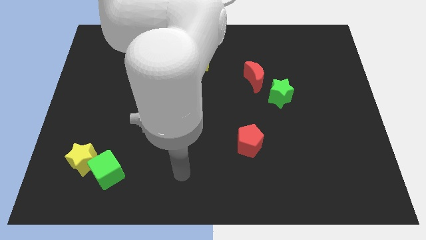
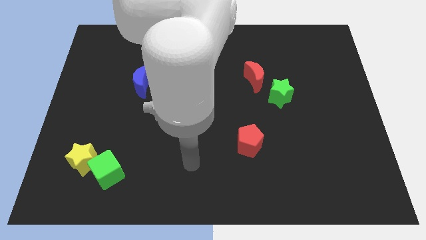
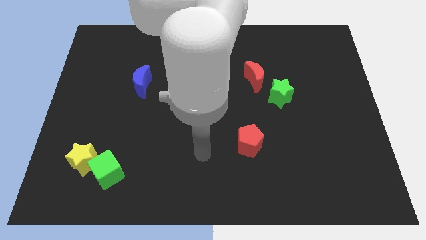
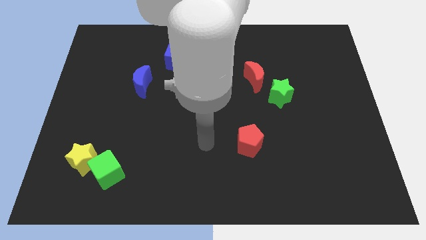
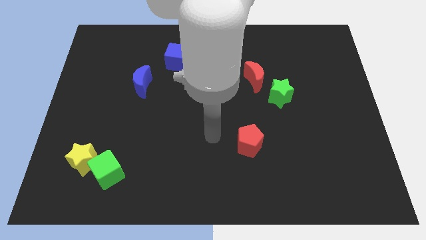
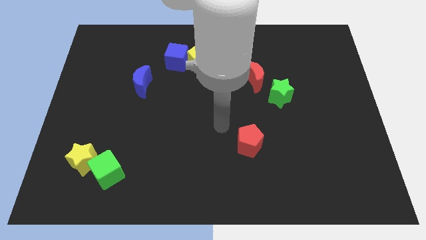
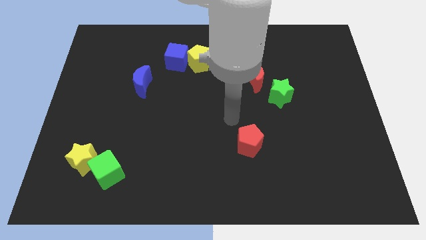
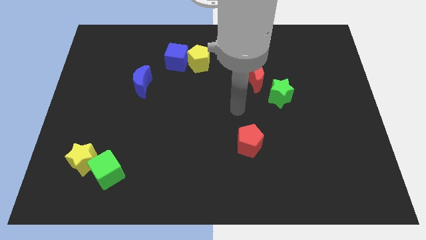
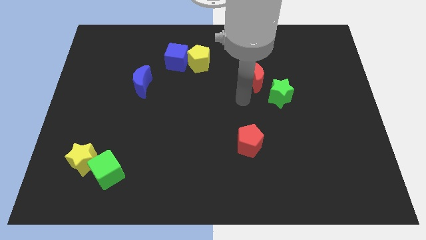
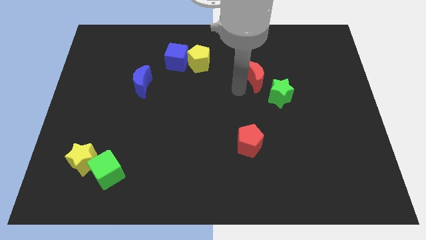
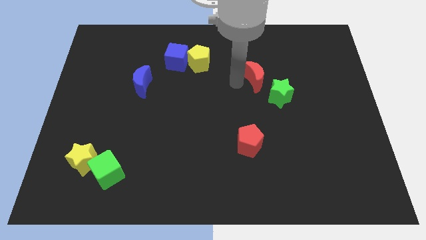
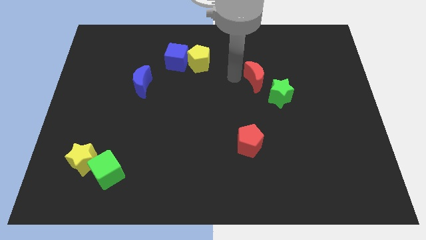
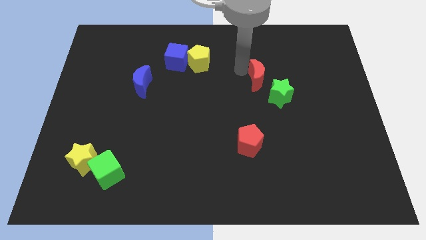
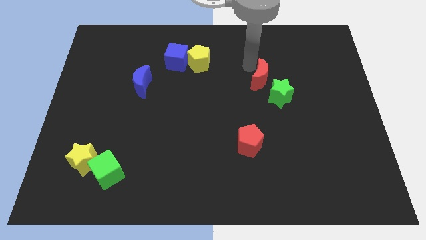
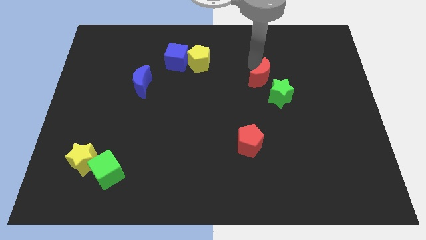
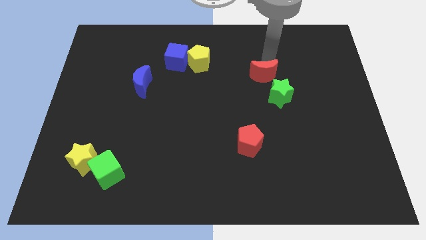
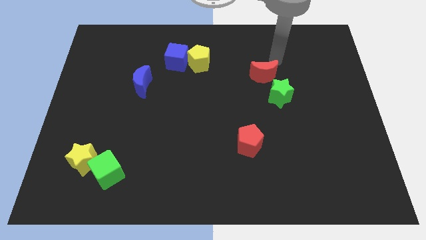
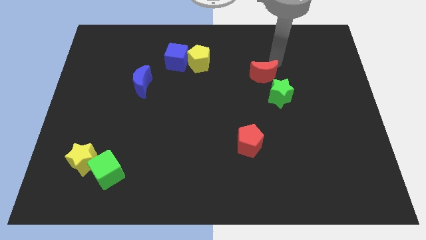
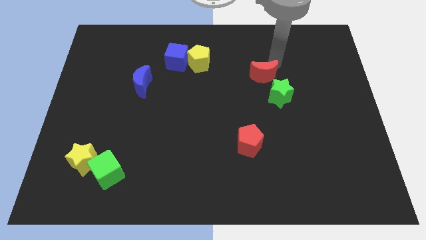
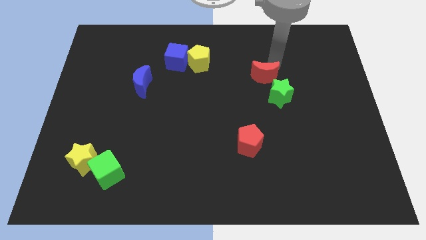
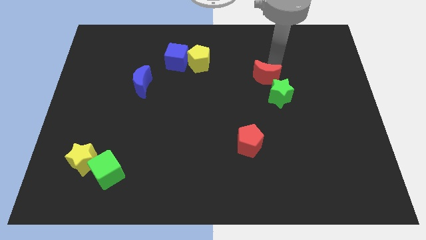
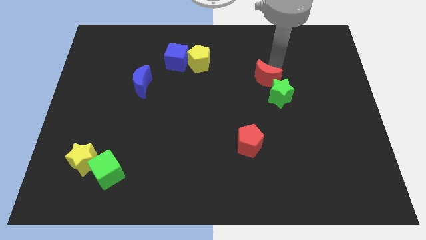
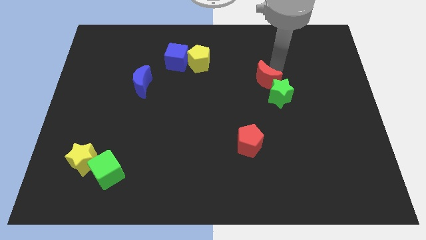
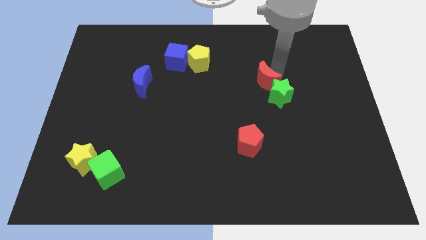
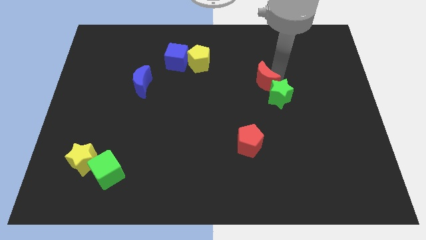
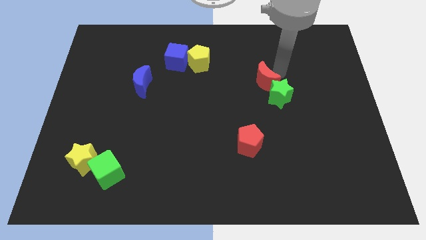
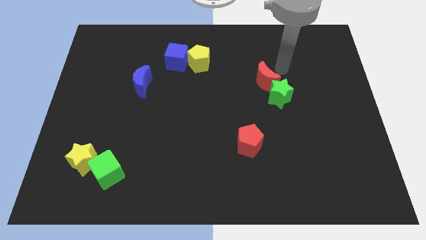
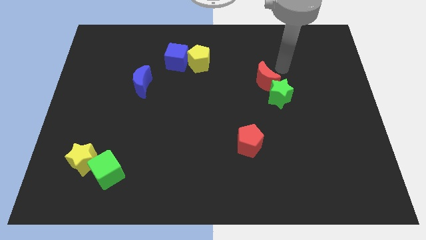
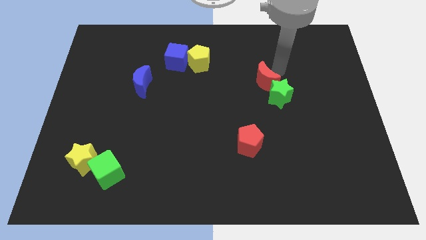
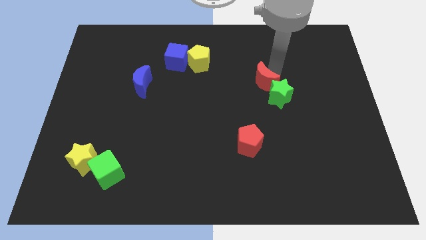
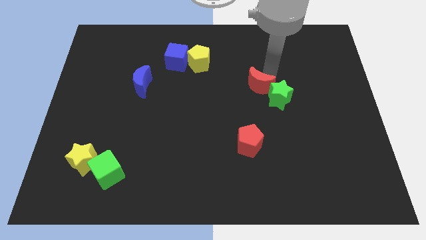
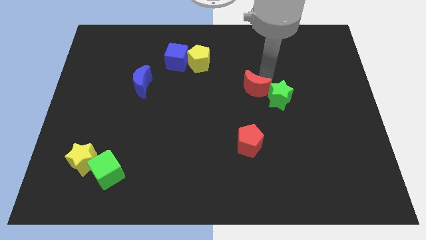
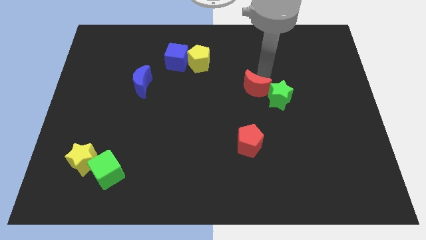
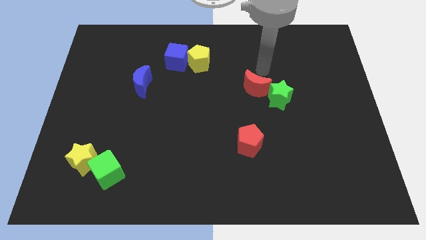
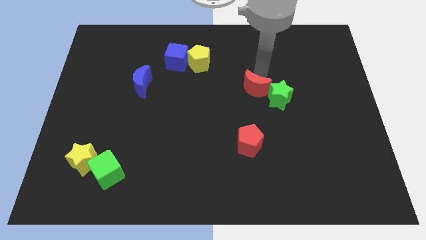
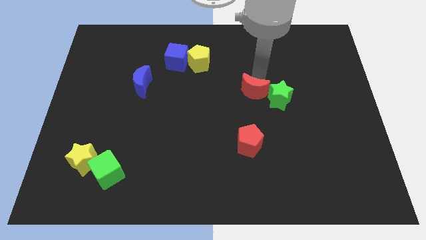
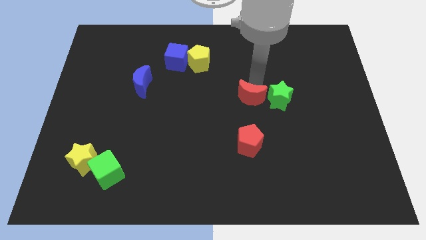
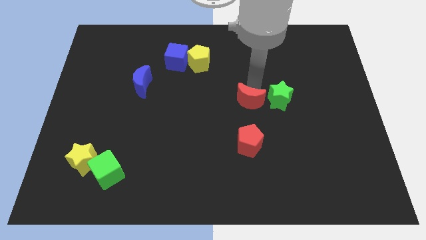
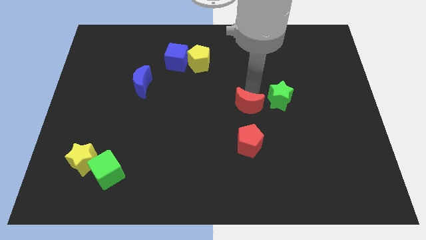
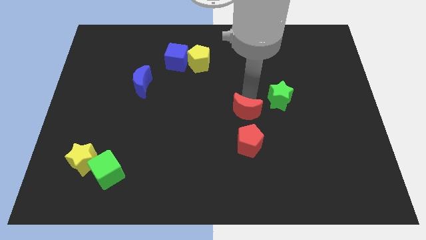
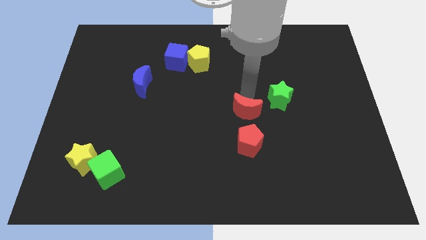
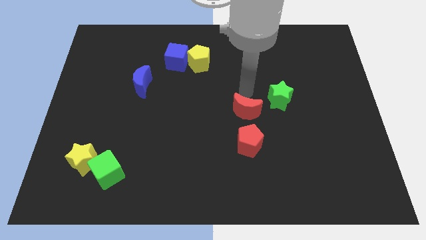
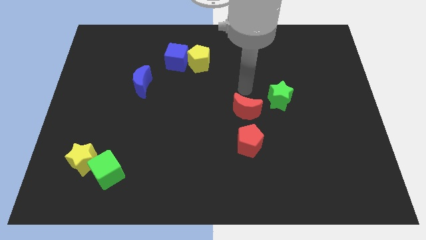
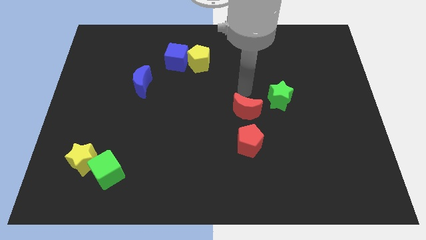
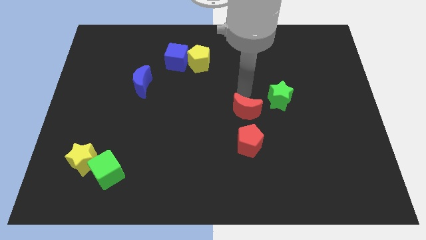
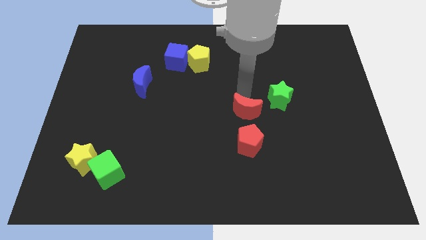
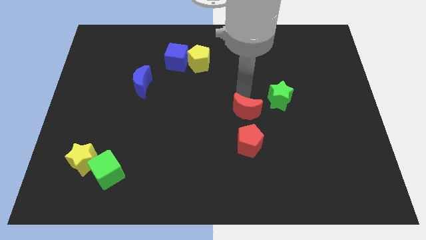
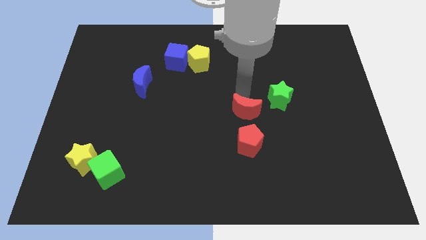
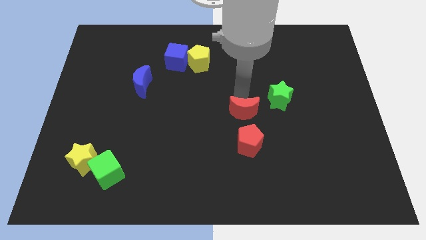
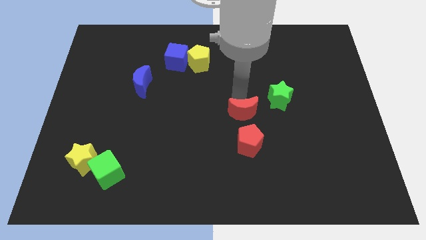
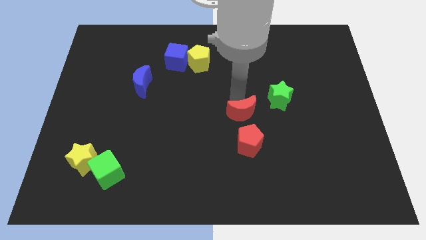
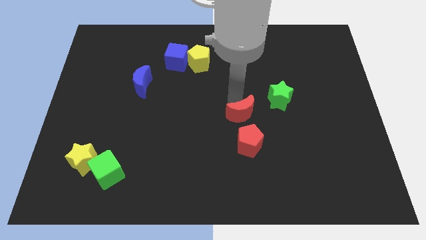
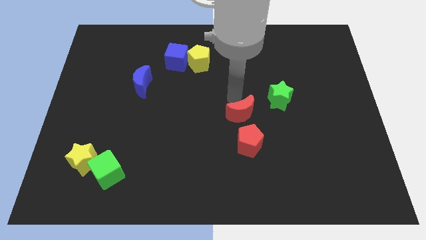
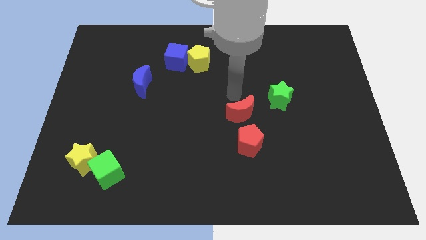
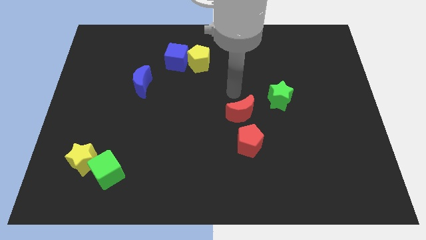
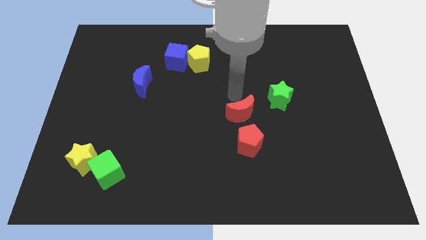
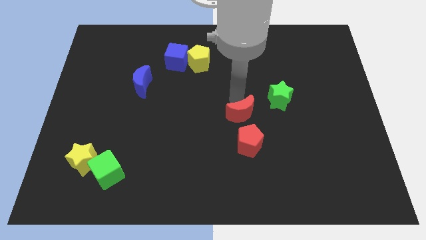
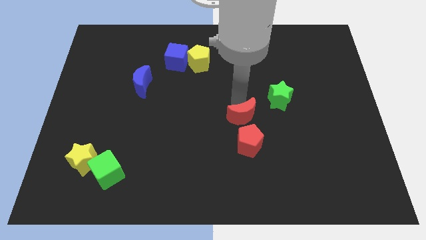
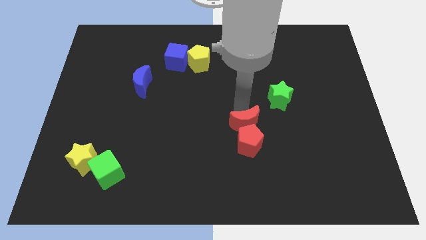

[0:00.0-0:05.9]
put the red moon towards the red pentagon
